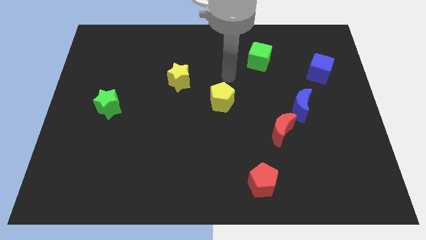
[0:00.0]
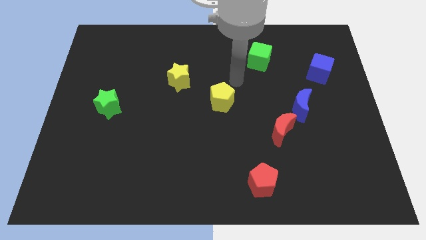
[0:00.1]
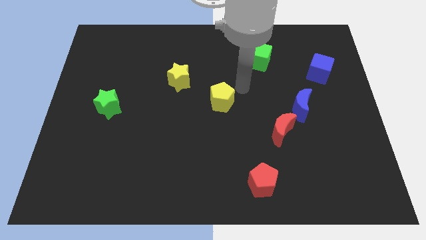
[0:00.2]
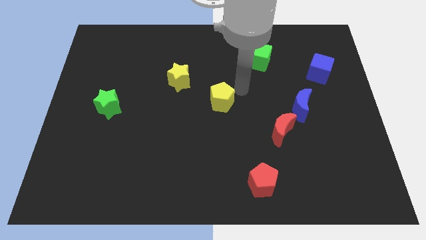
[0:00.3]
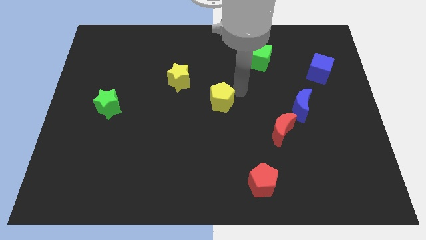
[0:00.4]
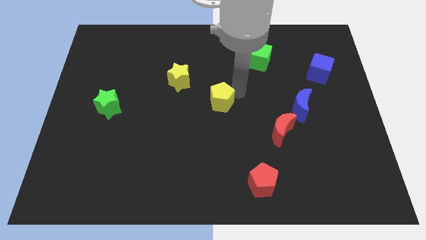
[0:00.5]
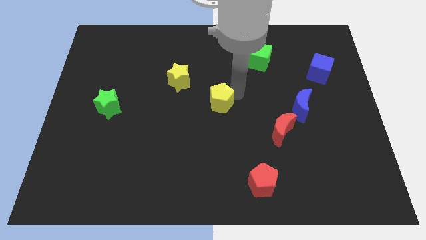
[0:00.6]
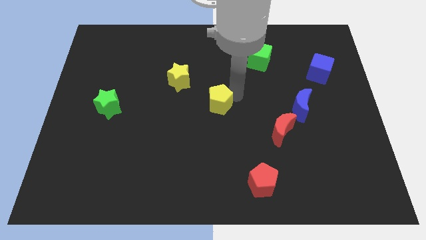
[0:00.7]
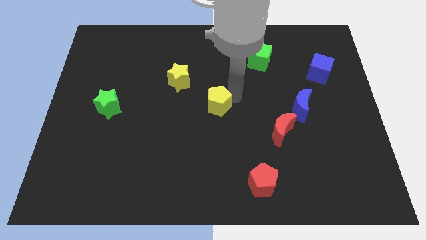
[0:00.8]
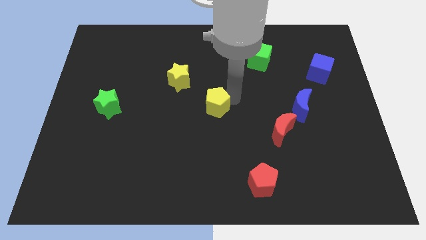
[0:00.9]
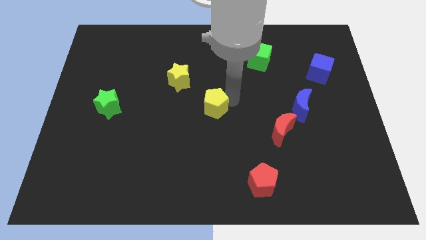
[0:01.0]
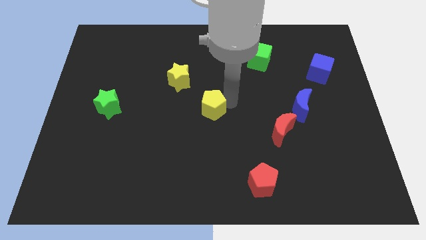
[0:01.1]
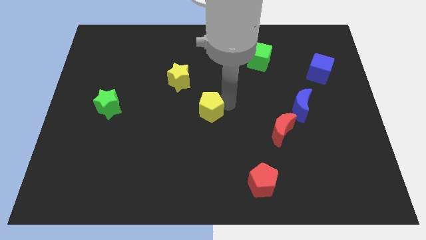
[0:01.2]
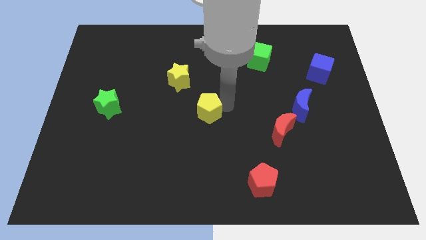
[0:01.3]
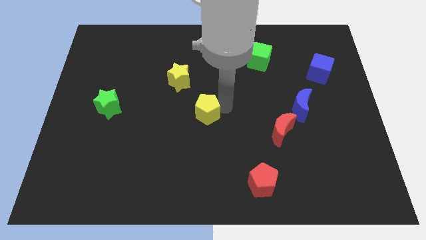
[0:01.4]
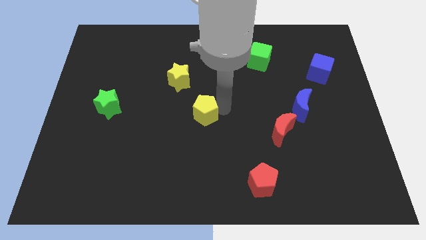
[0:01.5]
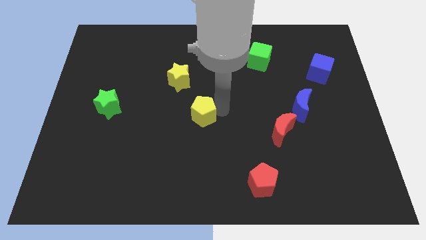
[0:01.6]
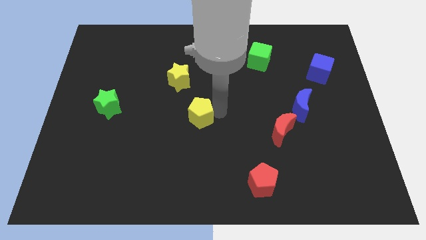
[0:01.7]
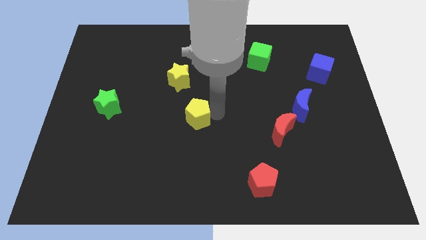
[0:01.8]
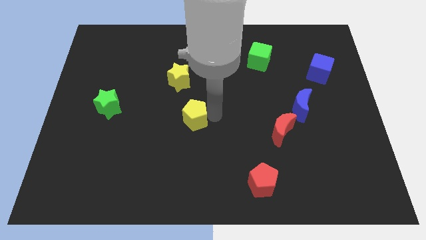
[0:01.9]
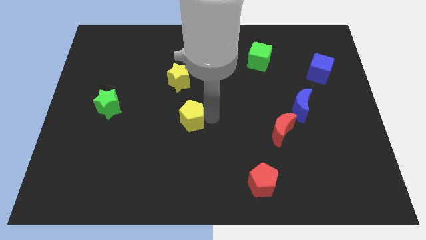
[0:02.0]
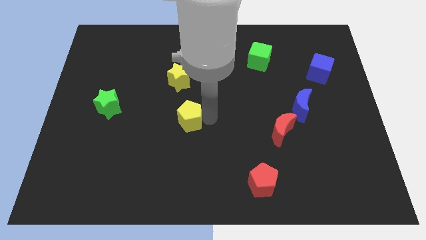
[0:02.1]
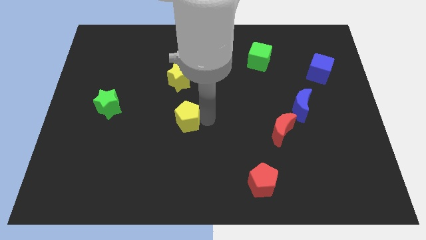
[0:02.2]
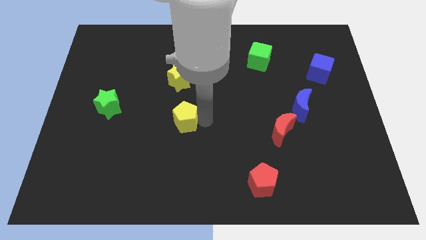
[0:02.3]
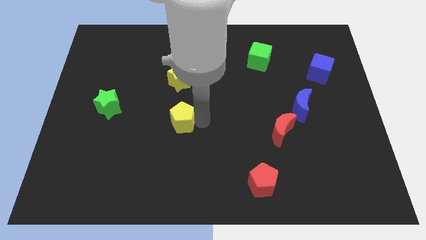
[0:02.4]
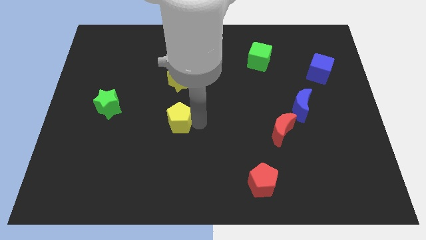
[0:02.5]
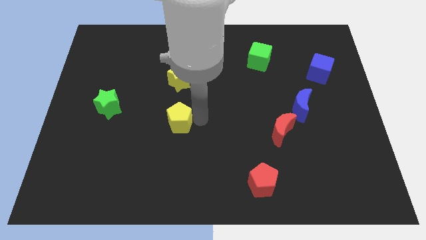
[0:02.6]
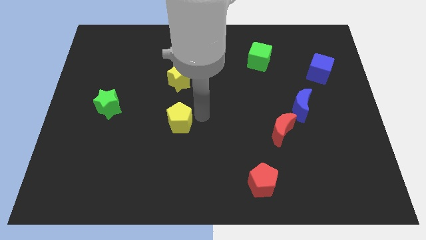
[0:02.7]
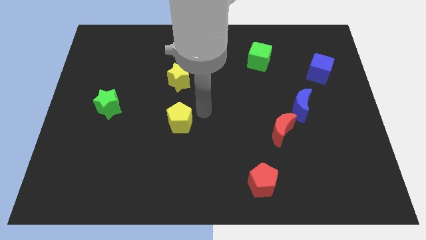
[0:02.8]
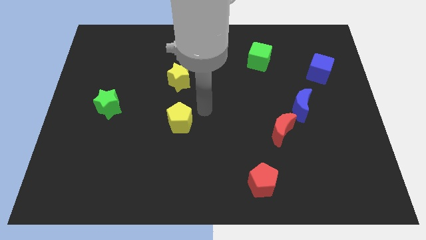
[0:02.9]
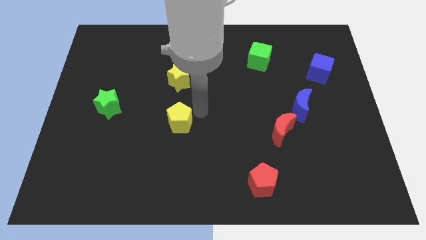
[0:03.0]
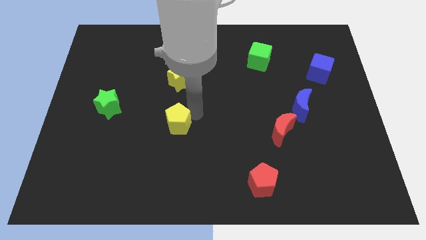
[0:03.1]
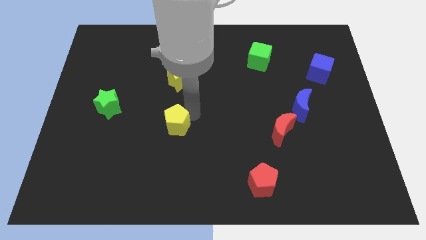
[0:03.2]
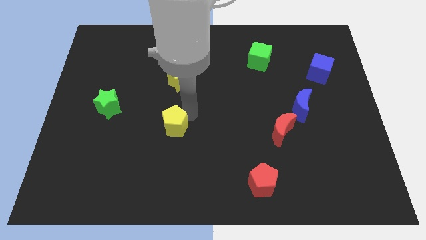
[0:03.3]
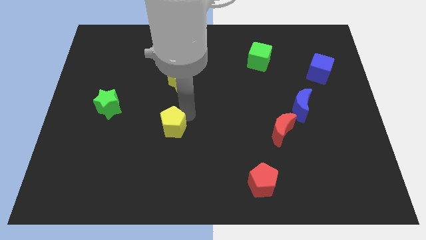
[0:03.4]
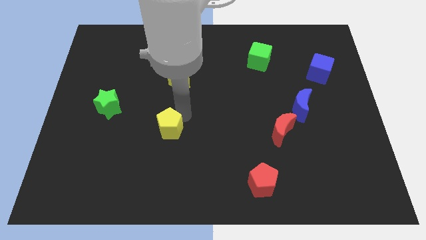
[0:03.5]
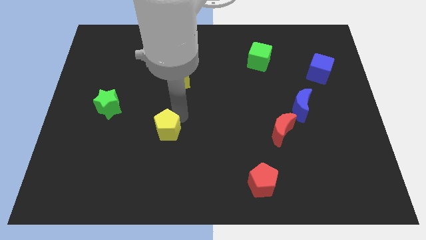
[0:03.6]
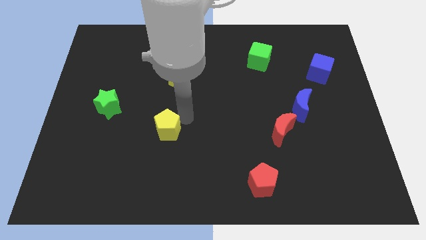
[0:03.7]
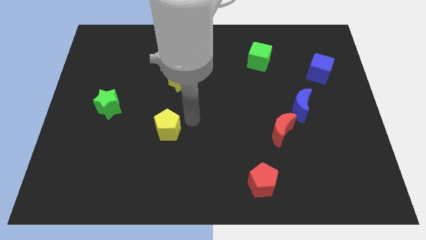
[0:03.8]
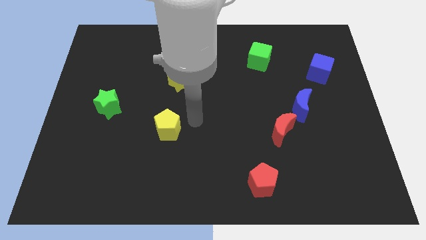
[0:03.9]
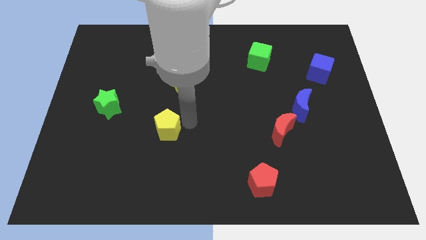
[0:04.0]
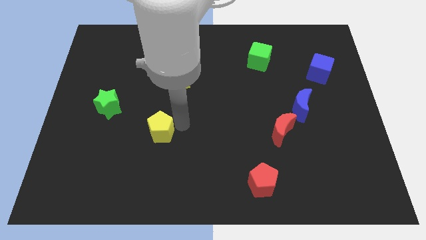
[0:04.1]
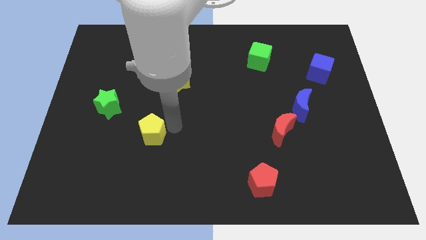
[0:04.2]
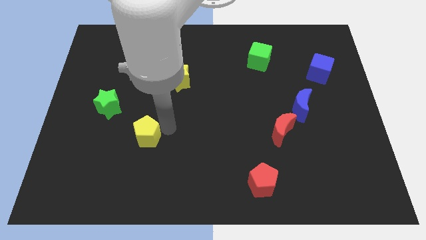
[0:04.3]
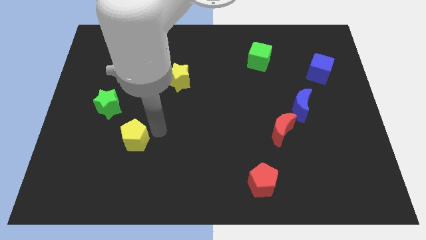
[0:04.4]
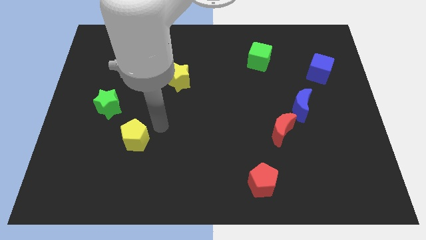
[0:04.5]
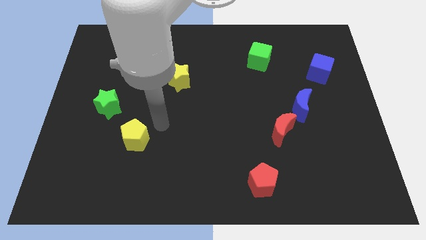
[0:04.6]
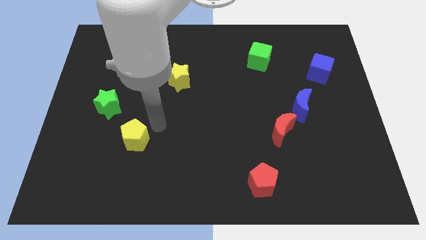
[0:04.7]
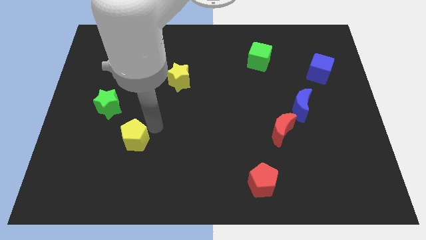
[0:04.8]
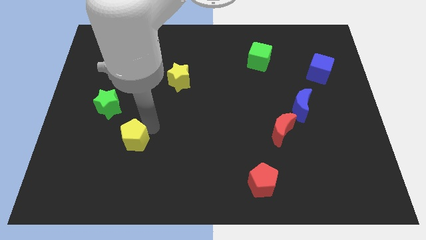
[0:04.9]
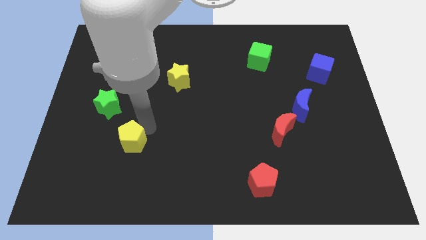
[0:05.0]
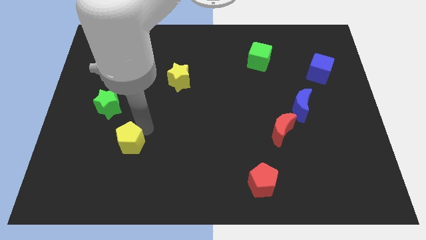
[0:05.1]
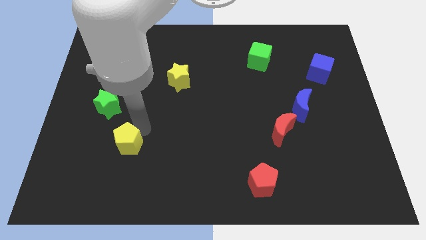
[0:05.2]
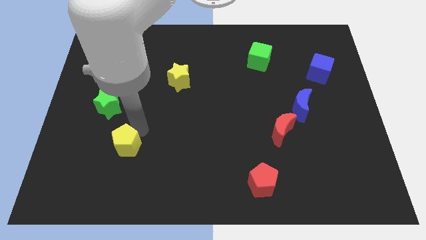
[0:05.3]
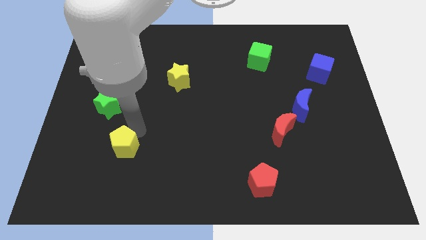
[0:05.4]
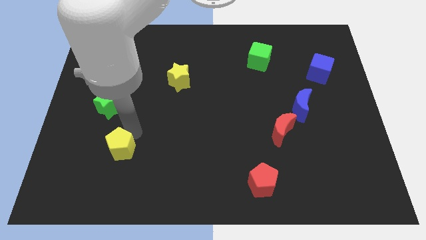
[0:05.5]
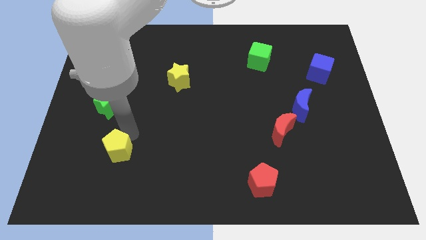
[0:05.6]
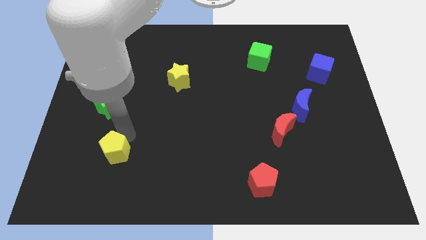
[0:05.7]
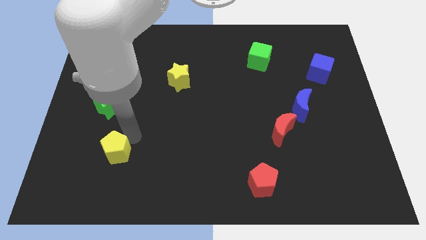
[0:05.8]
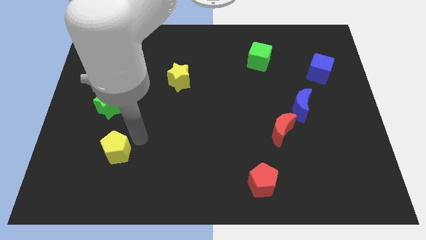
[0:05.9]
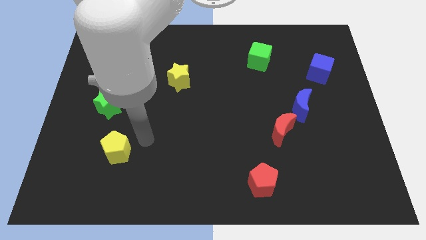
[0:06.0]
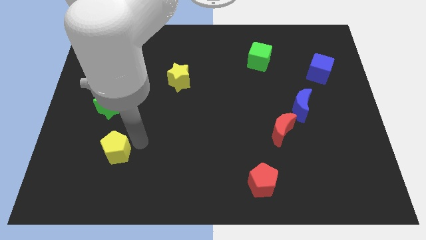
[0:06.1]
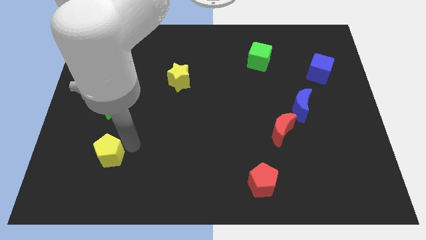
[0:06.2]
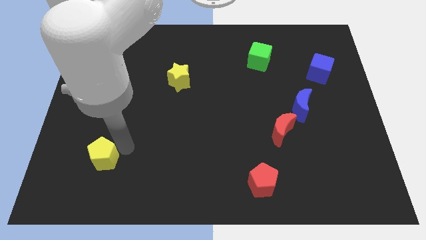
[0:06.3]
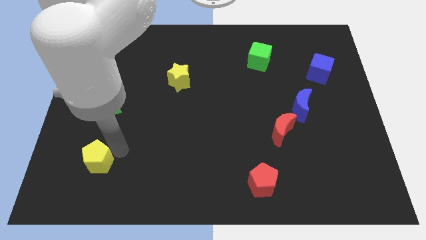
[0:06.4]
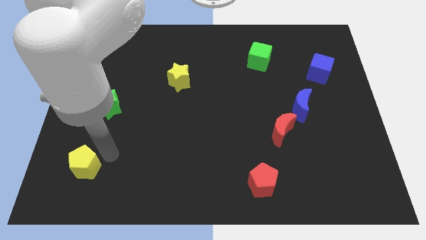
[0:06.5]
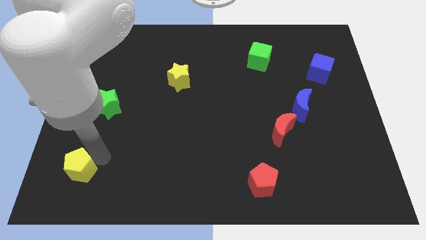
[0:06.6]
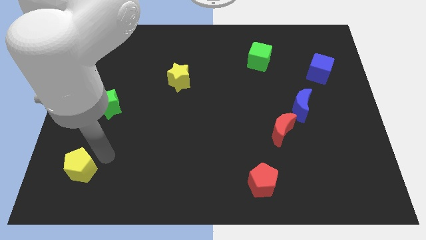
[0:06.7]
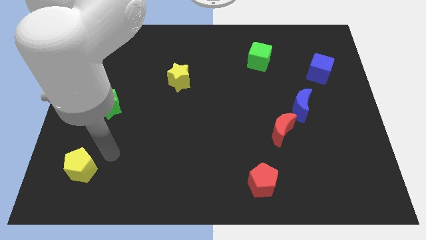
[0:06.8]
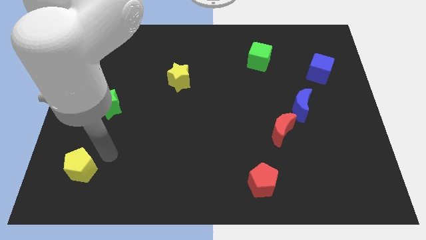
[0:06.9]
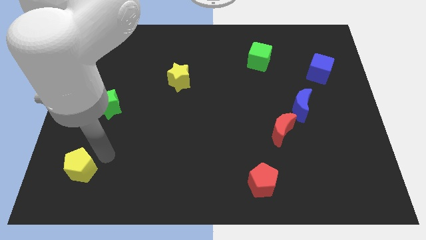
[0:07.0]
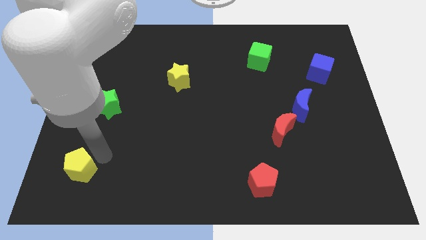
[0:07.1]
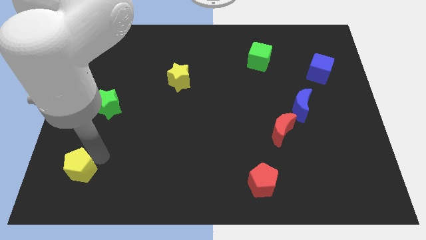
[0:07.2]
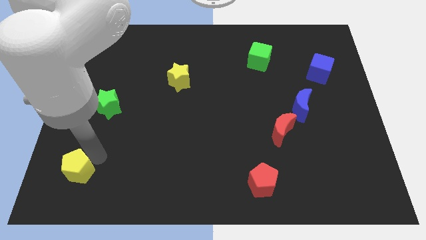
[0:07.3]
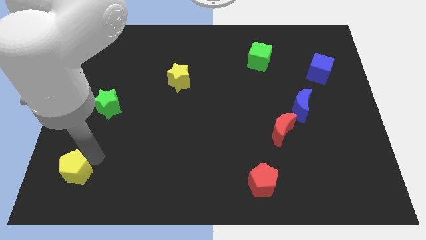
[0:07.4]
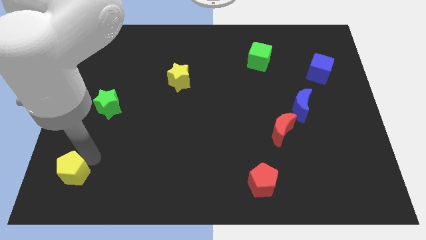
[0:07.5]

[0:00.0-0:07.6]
slide the yellow pentagon to the lower left corner
